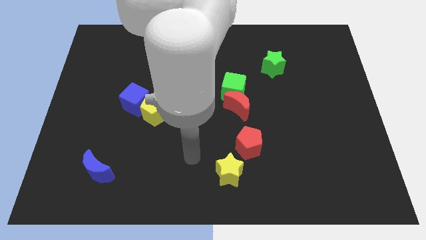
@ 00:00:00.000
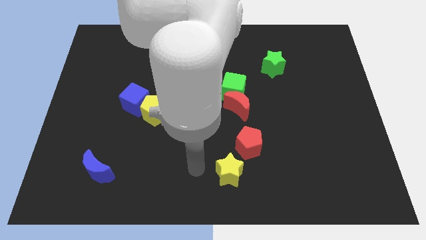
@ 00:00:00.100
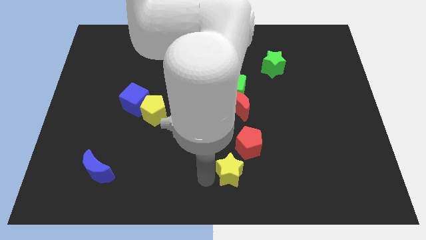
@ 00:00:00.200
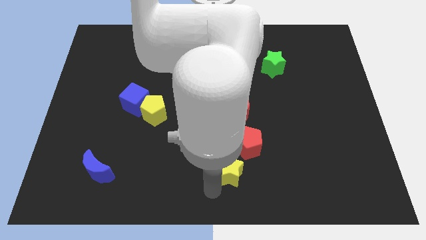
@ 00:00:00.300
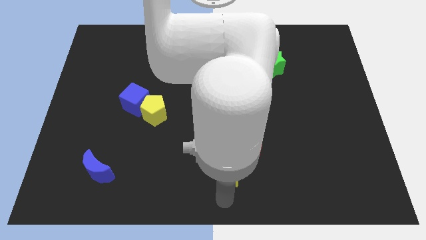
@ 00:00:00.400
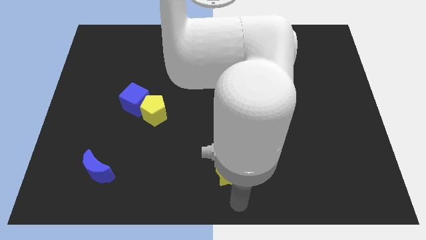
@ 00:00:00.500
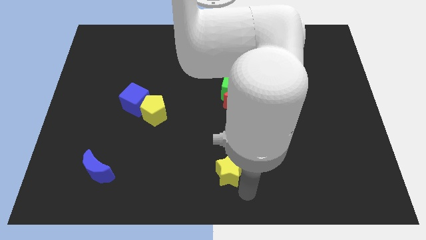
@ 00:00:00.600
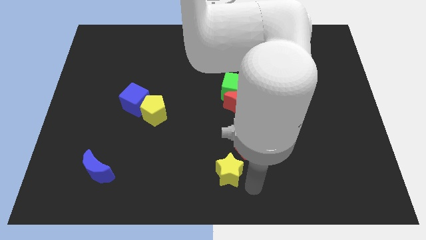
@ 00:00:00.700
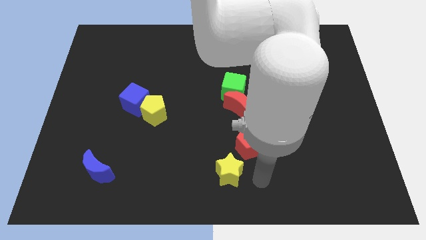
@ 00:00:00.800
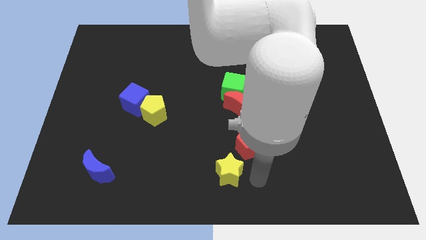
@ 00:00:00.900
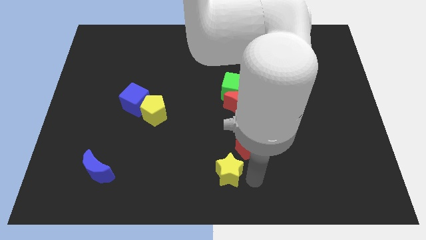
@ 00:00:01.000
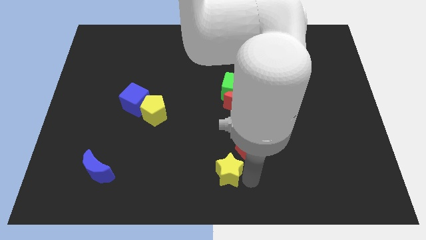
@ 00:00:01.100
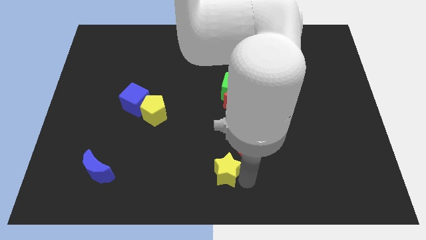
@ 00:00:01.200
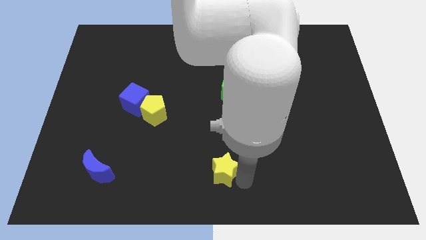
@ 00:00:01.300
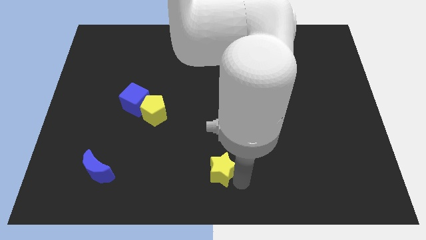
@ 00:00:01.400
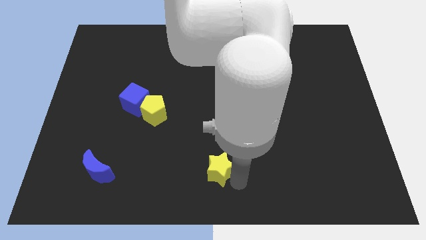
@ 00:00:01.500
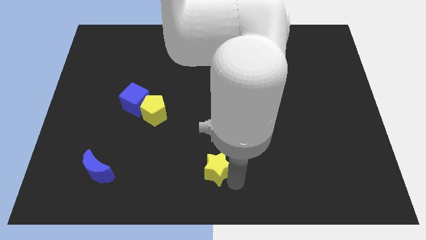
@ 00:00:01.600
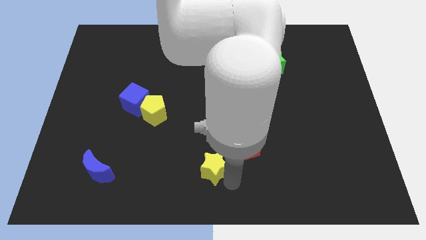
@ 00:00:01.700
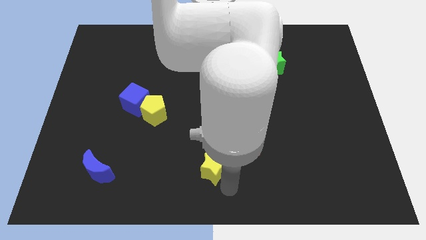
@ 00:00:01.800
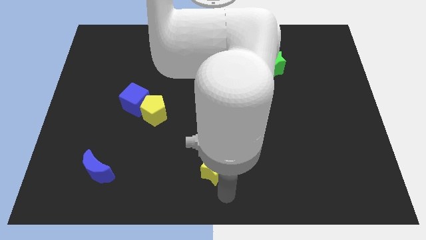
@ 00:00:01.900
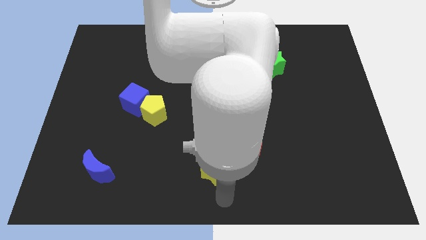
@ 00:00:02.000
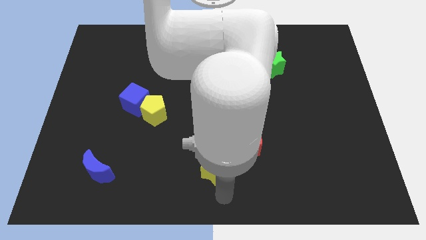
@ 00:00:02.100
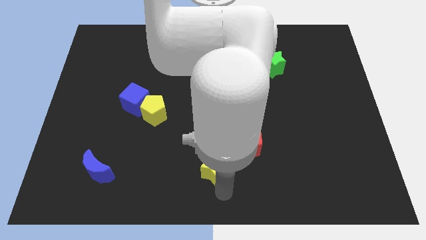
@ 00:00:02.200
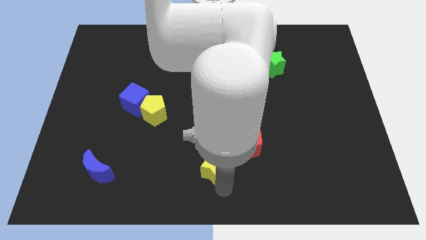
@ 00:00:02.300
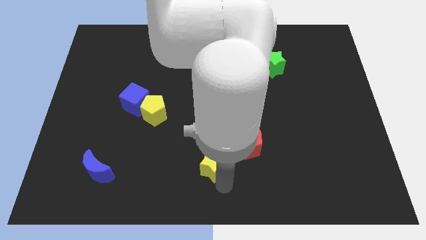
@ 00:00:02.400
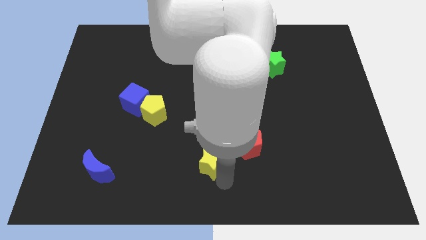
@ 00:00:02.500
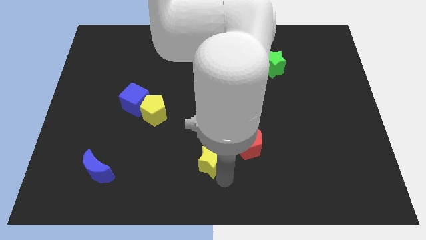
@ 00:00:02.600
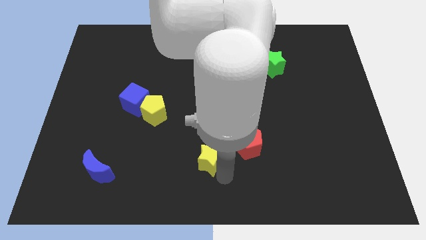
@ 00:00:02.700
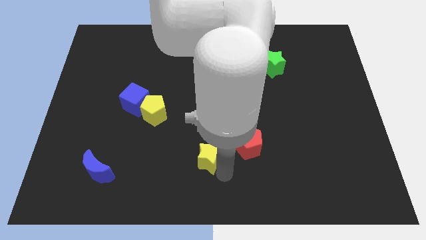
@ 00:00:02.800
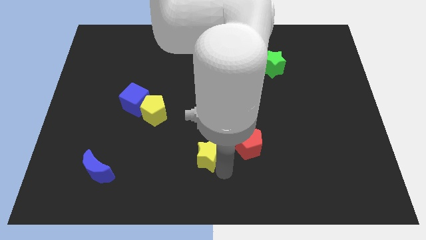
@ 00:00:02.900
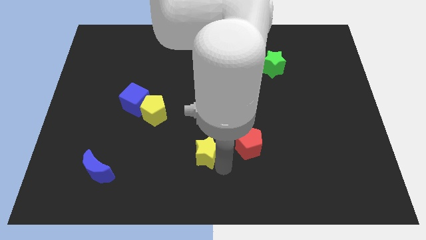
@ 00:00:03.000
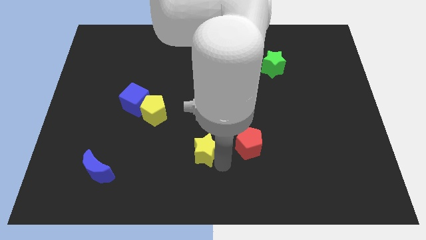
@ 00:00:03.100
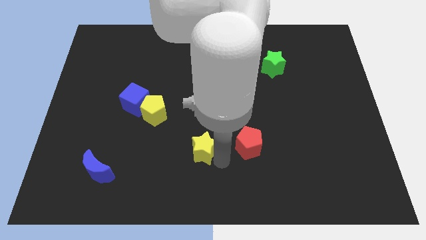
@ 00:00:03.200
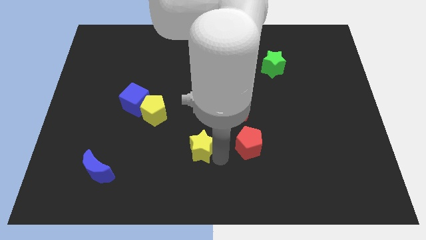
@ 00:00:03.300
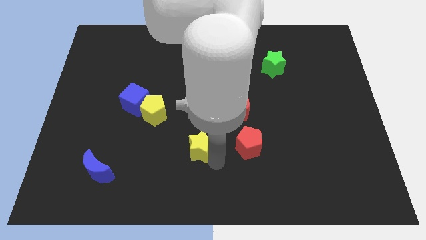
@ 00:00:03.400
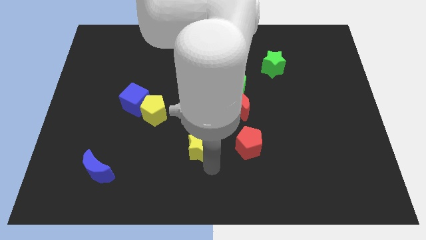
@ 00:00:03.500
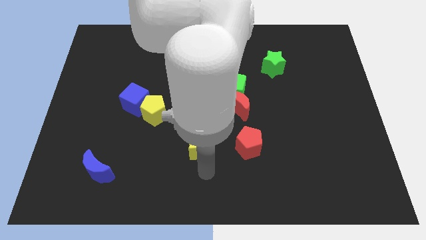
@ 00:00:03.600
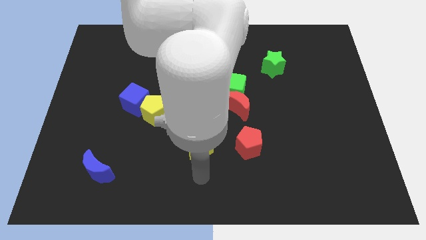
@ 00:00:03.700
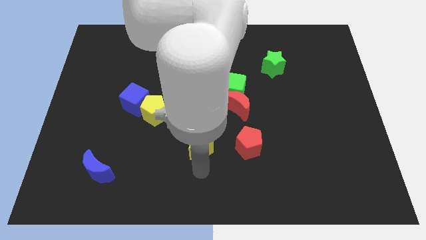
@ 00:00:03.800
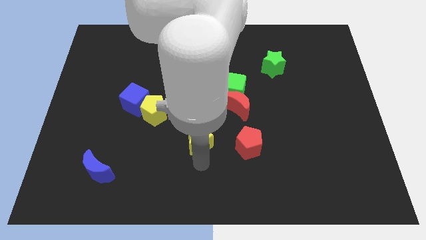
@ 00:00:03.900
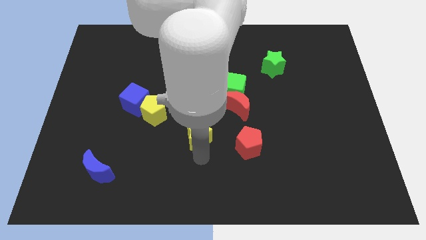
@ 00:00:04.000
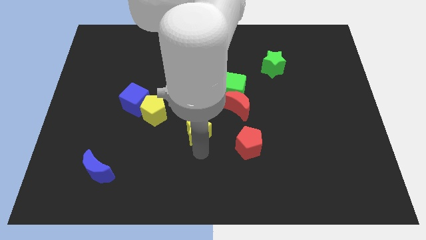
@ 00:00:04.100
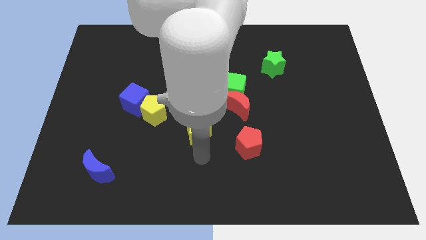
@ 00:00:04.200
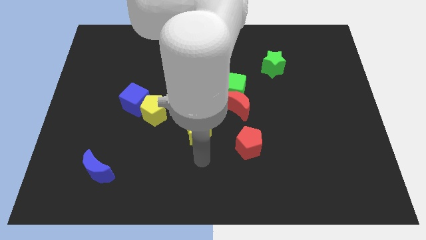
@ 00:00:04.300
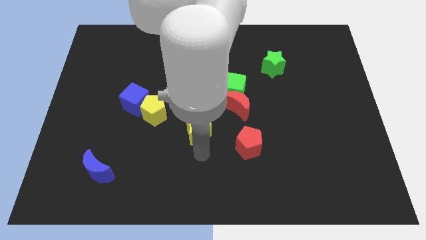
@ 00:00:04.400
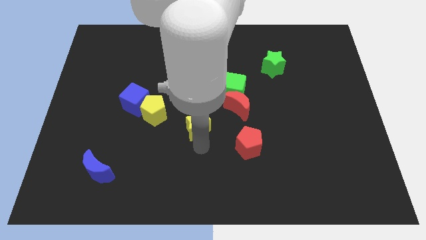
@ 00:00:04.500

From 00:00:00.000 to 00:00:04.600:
put the yellow star to the right of the yellow pentagon

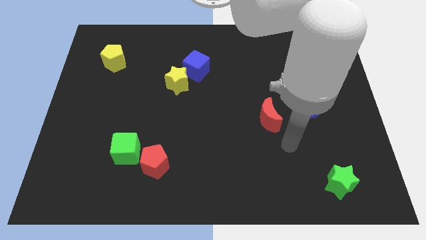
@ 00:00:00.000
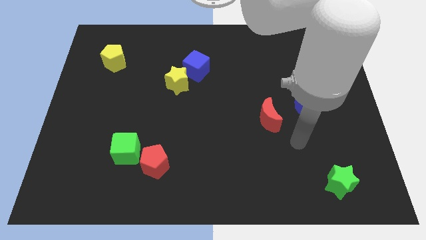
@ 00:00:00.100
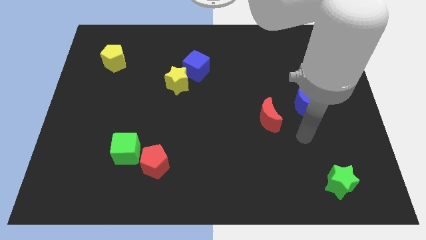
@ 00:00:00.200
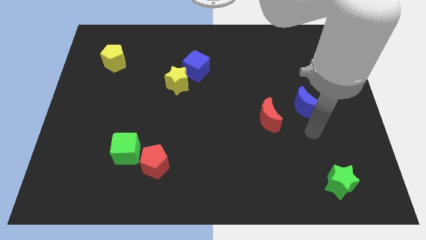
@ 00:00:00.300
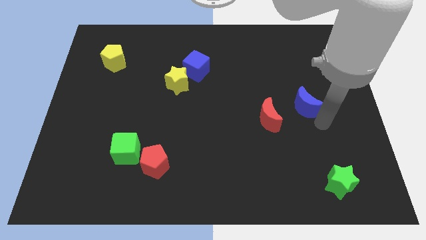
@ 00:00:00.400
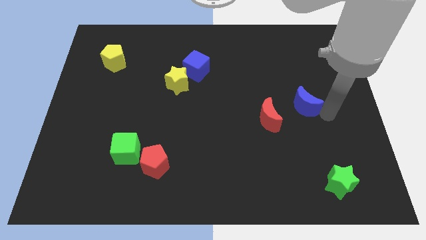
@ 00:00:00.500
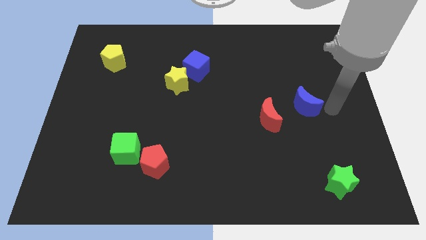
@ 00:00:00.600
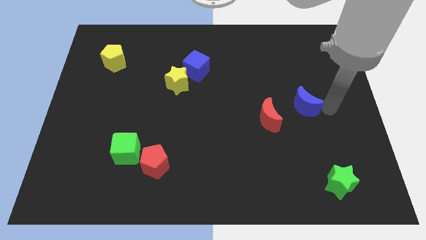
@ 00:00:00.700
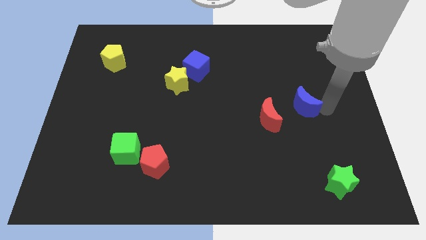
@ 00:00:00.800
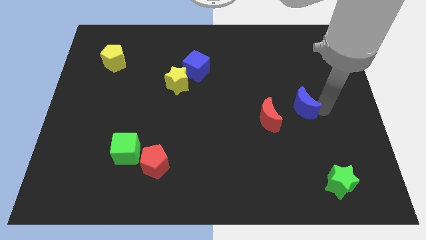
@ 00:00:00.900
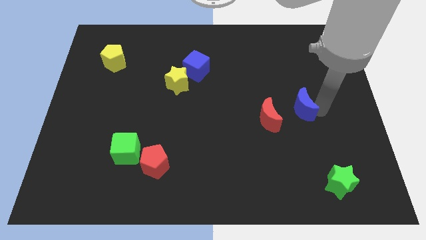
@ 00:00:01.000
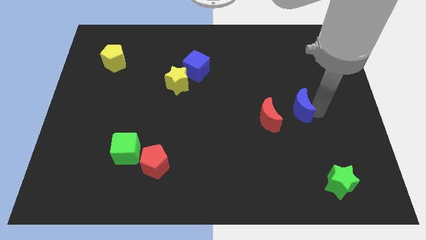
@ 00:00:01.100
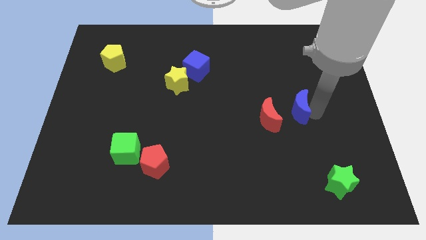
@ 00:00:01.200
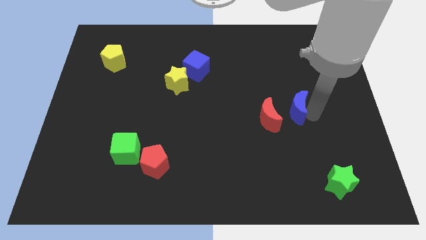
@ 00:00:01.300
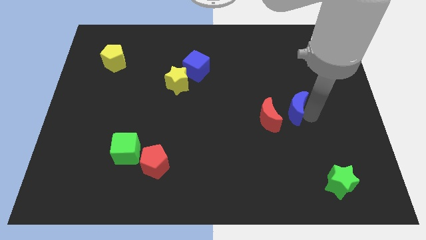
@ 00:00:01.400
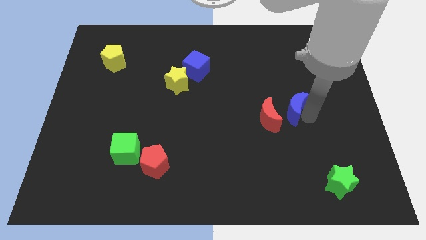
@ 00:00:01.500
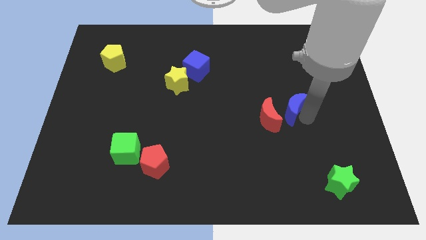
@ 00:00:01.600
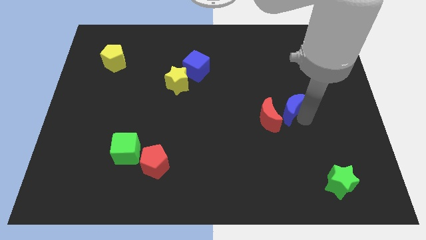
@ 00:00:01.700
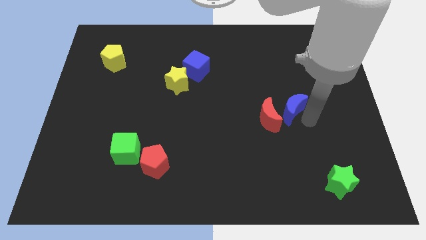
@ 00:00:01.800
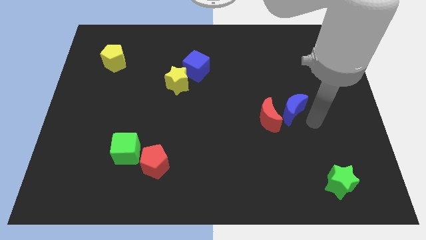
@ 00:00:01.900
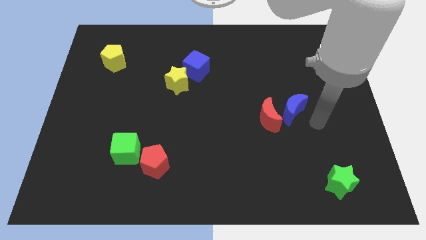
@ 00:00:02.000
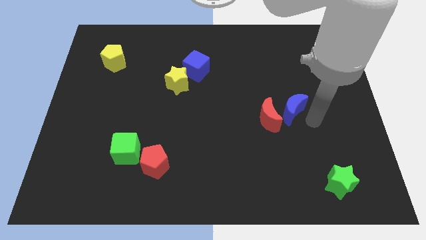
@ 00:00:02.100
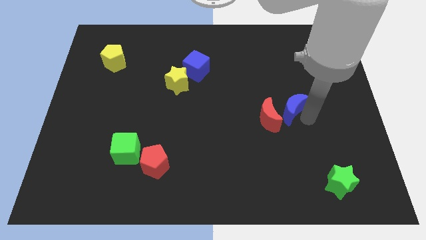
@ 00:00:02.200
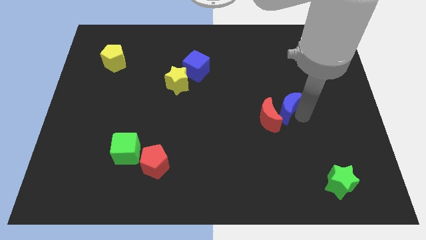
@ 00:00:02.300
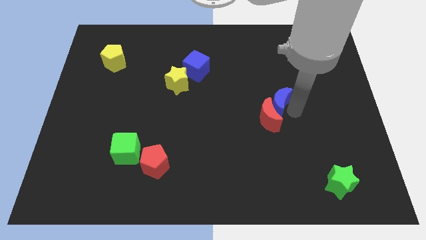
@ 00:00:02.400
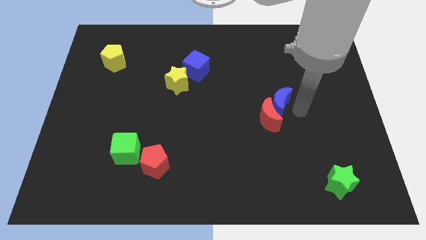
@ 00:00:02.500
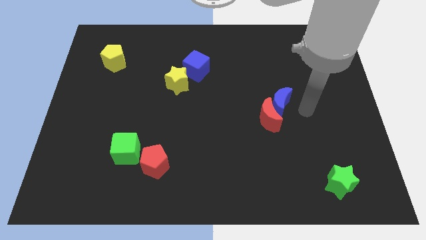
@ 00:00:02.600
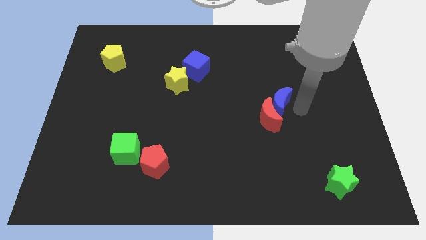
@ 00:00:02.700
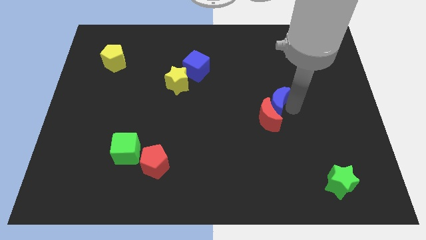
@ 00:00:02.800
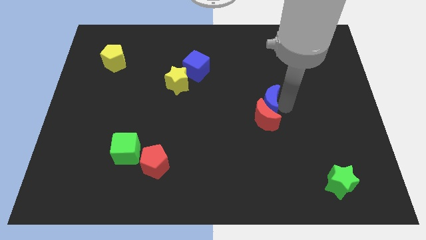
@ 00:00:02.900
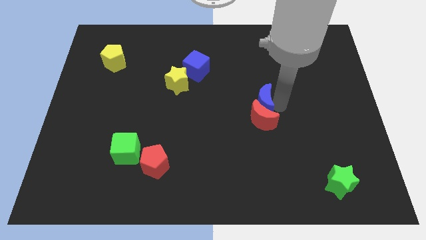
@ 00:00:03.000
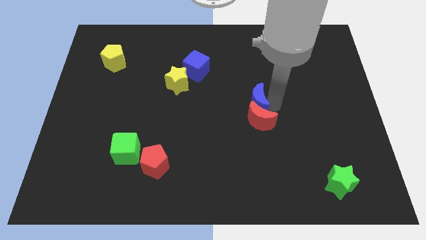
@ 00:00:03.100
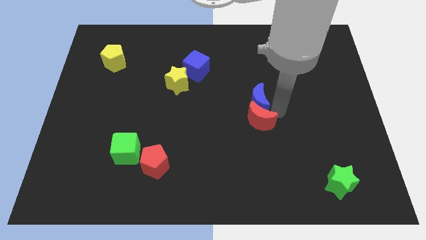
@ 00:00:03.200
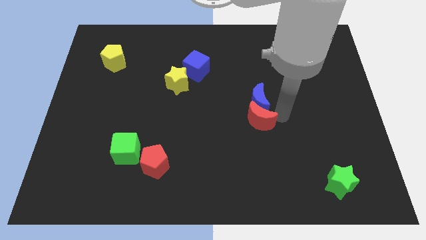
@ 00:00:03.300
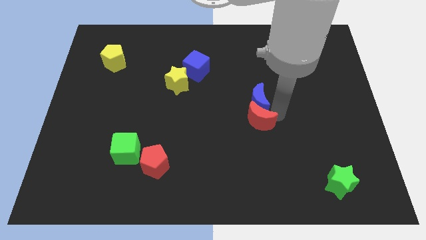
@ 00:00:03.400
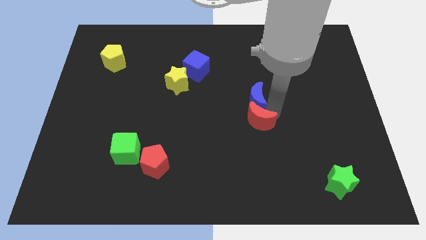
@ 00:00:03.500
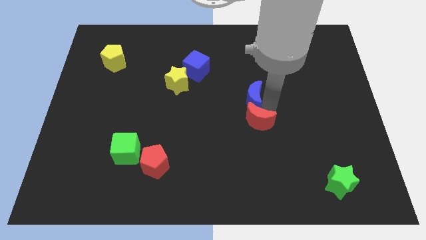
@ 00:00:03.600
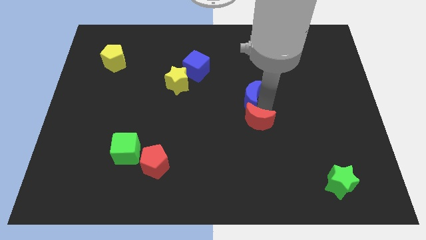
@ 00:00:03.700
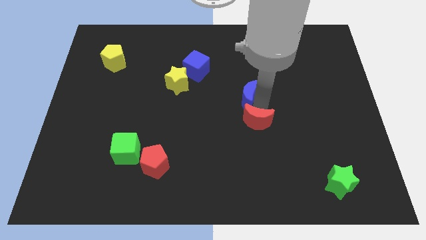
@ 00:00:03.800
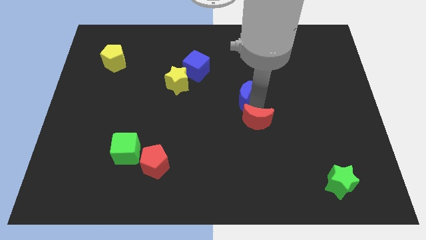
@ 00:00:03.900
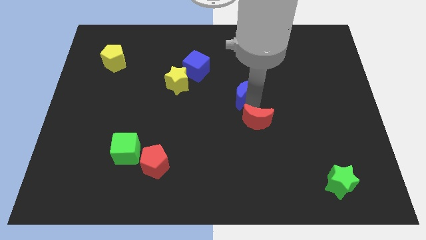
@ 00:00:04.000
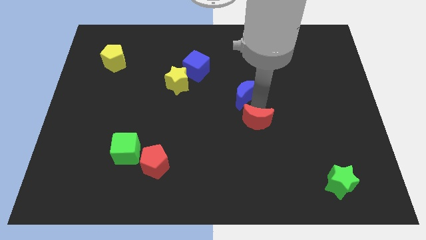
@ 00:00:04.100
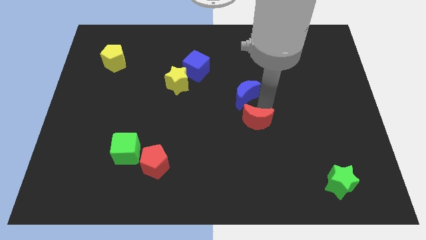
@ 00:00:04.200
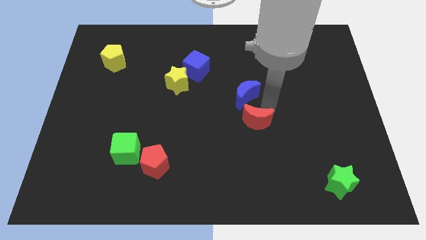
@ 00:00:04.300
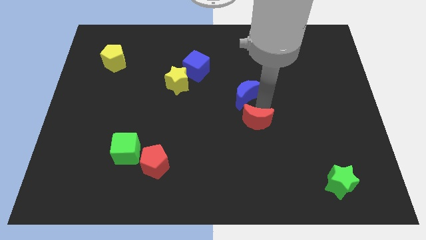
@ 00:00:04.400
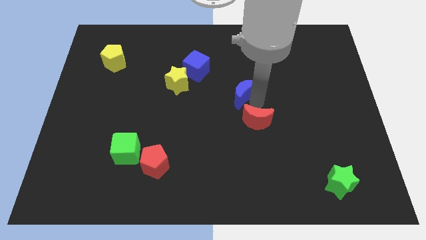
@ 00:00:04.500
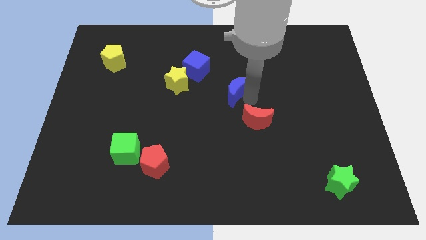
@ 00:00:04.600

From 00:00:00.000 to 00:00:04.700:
move the blue moon to the right of the yellow star
